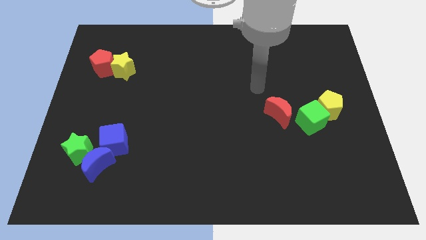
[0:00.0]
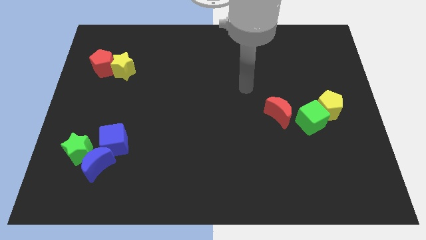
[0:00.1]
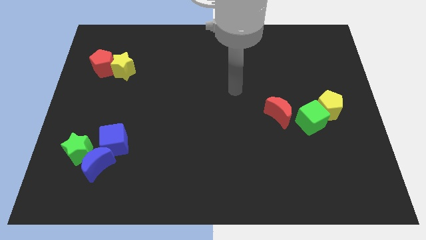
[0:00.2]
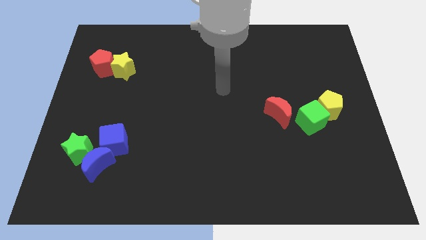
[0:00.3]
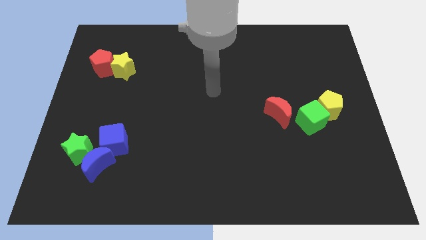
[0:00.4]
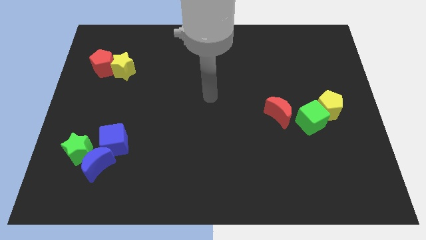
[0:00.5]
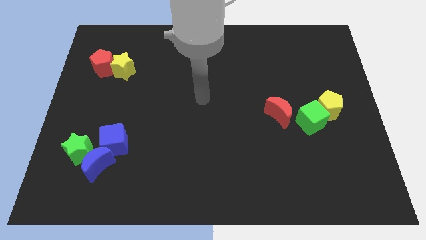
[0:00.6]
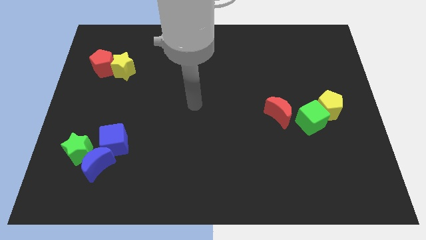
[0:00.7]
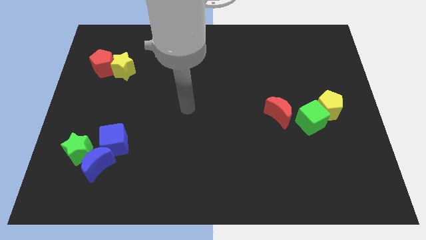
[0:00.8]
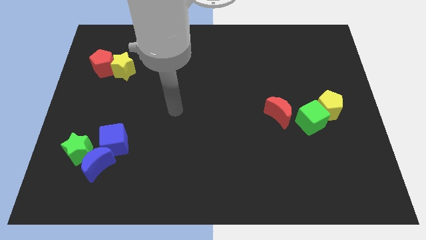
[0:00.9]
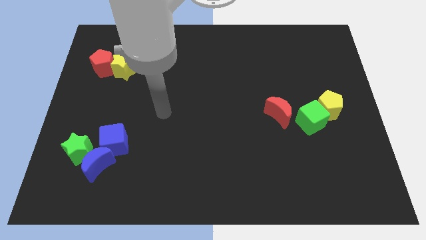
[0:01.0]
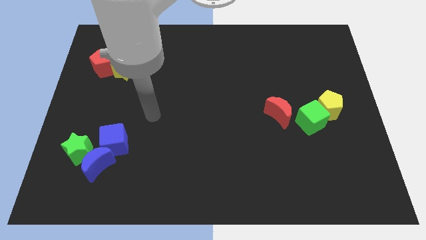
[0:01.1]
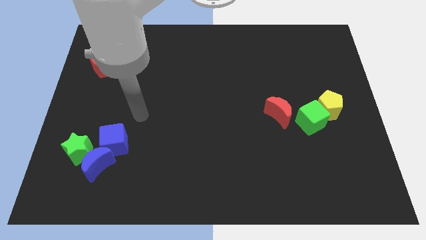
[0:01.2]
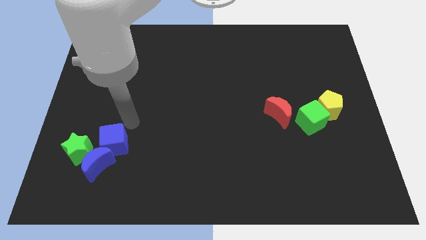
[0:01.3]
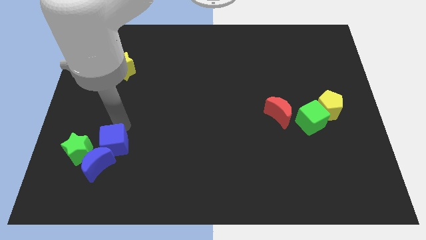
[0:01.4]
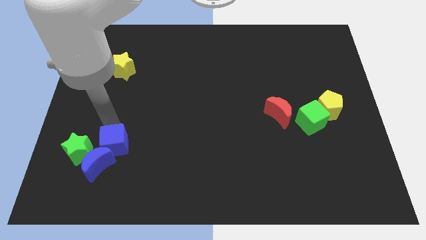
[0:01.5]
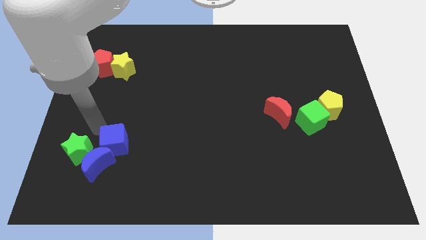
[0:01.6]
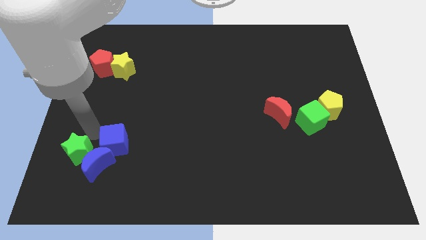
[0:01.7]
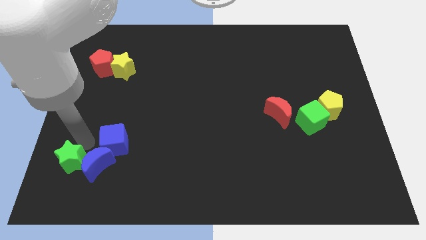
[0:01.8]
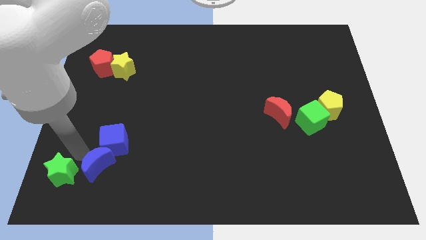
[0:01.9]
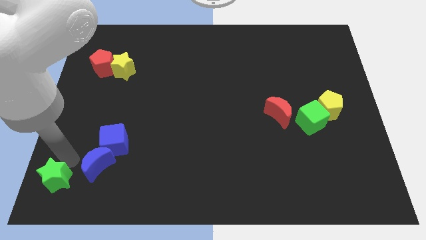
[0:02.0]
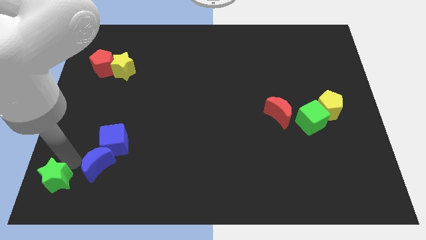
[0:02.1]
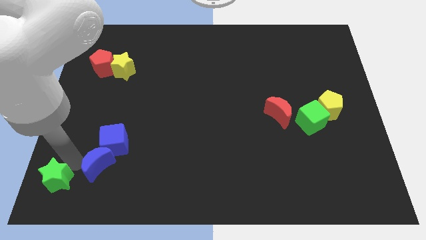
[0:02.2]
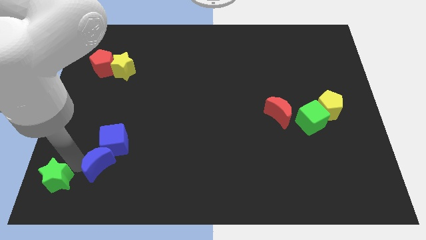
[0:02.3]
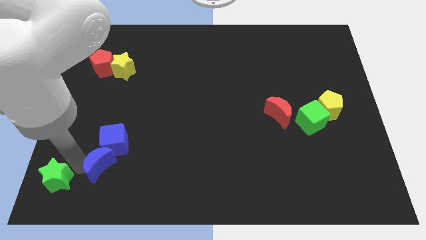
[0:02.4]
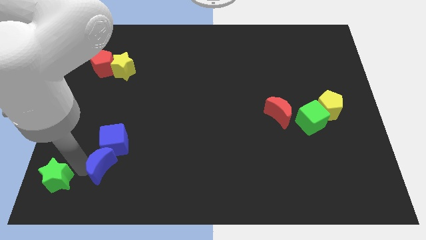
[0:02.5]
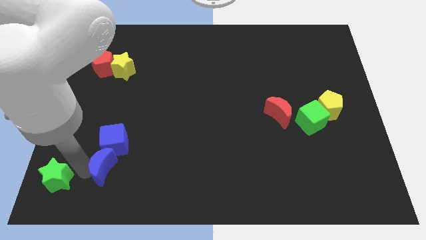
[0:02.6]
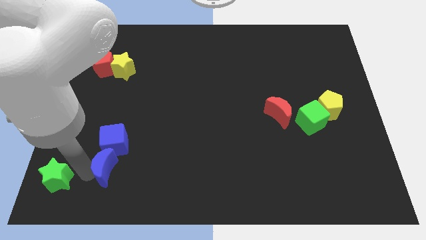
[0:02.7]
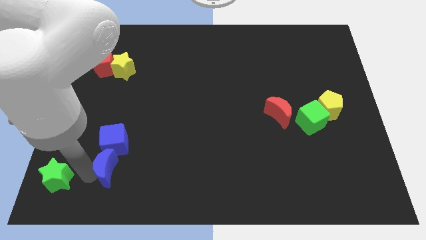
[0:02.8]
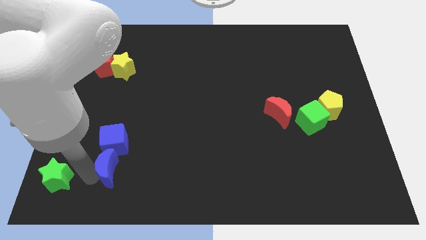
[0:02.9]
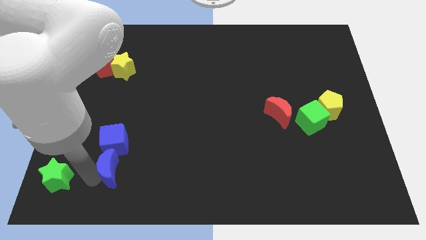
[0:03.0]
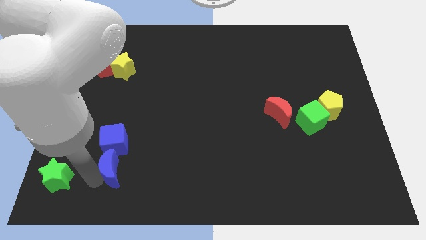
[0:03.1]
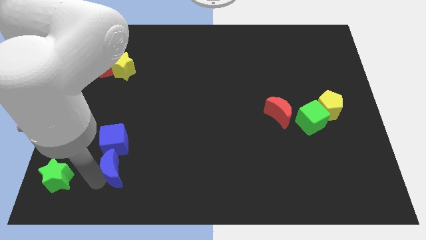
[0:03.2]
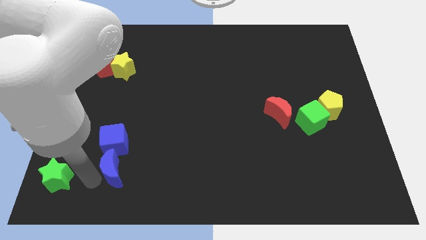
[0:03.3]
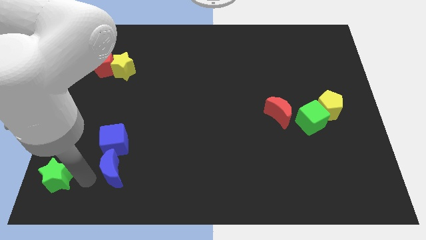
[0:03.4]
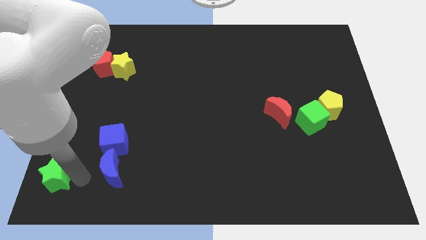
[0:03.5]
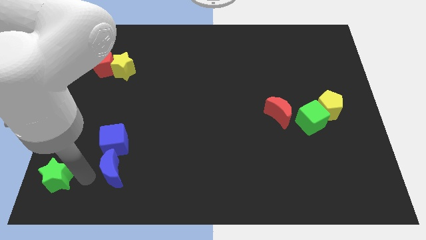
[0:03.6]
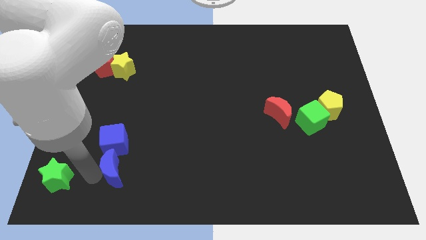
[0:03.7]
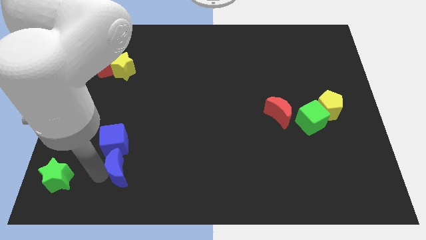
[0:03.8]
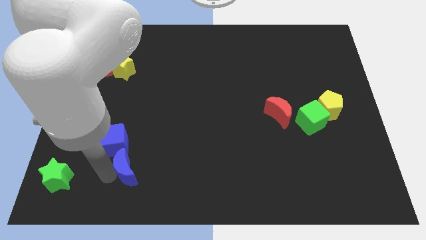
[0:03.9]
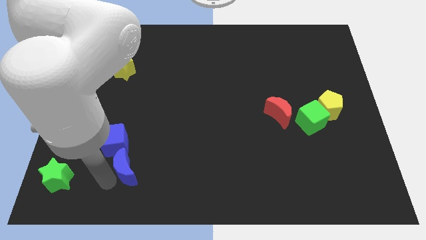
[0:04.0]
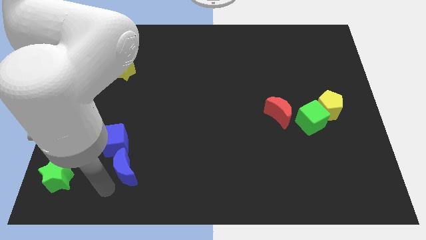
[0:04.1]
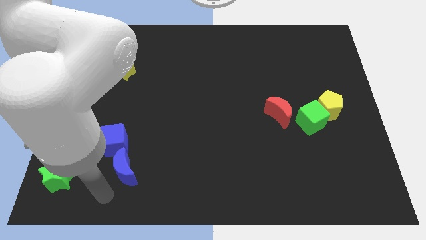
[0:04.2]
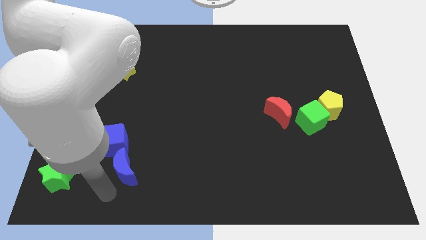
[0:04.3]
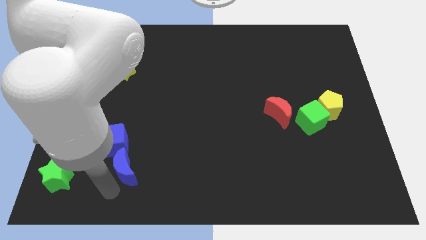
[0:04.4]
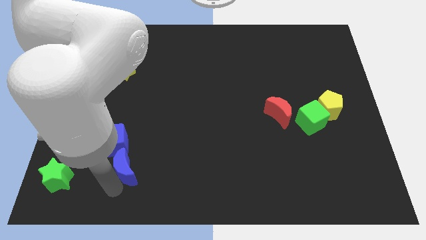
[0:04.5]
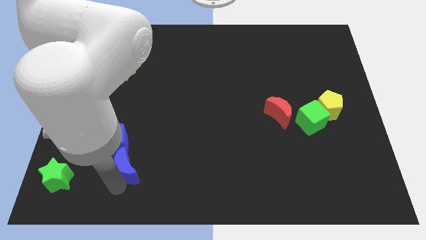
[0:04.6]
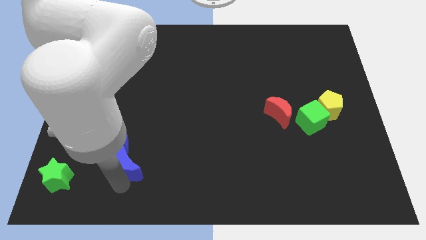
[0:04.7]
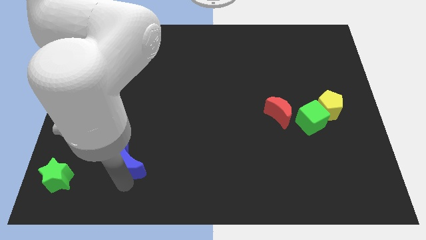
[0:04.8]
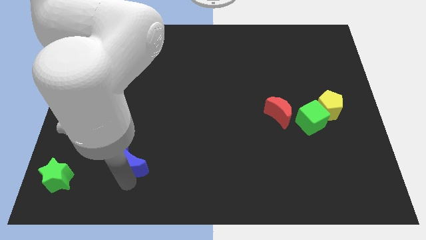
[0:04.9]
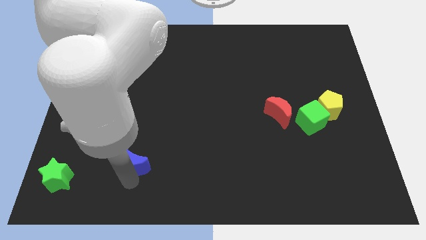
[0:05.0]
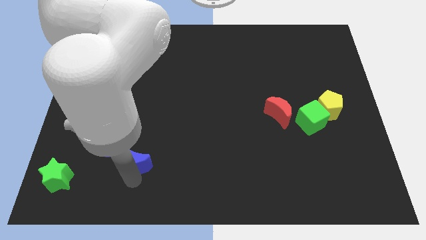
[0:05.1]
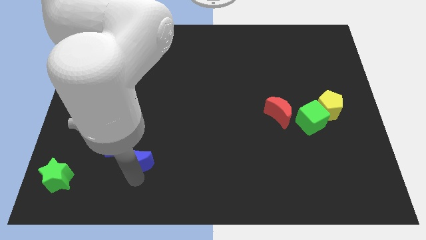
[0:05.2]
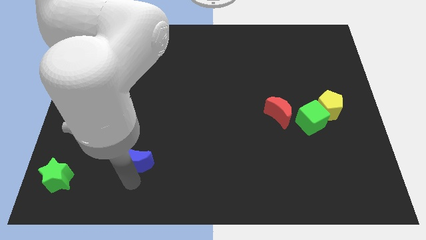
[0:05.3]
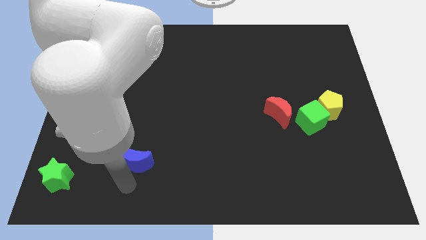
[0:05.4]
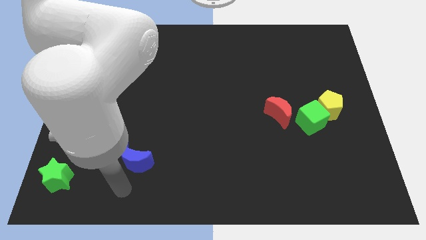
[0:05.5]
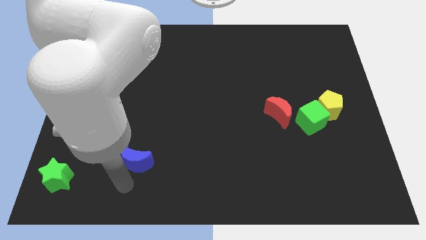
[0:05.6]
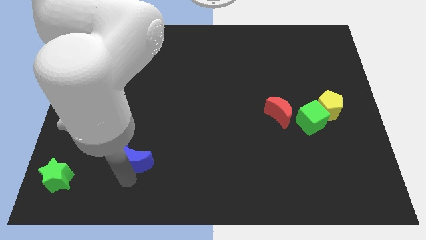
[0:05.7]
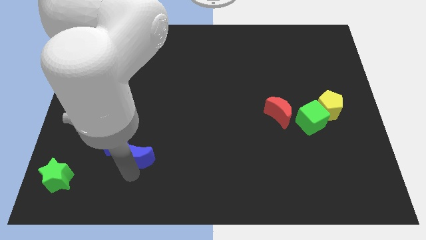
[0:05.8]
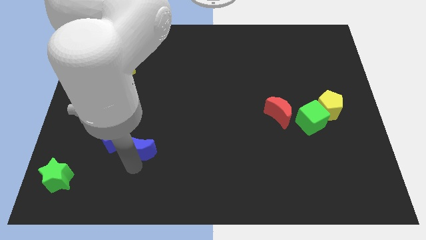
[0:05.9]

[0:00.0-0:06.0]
move the blue moon up and right diagonally slightly

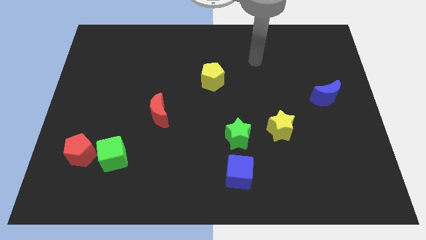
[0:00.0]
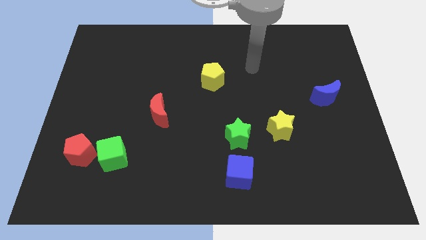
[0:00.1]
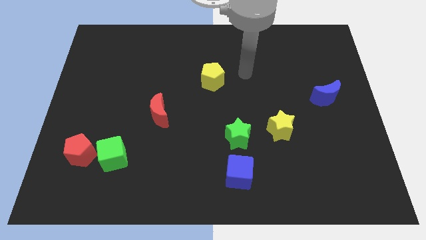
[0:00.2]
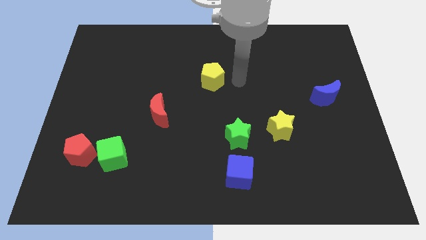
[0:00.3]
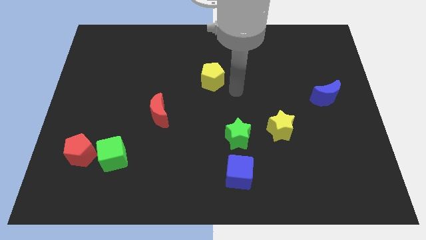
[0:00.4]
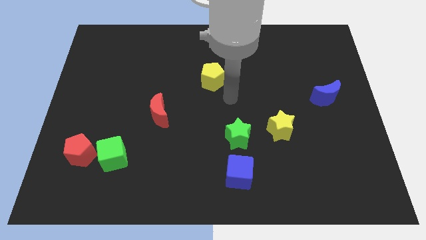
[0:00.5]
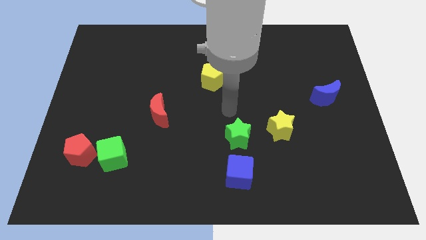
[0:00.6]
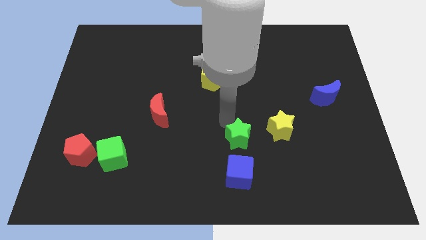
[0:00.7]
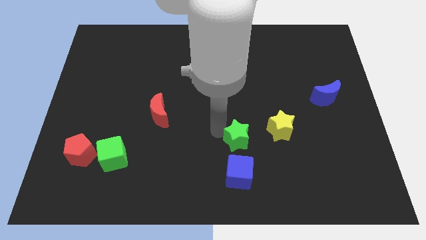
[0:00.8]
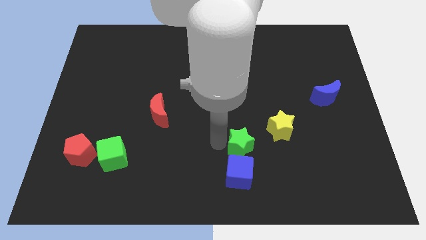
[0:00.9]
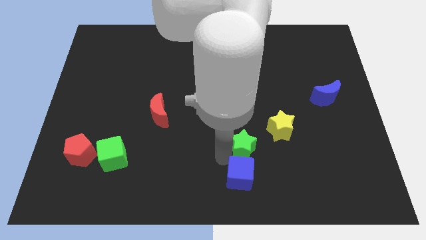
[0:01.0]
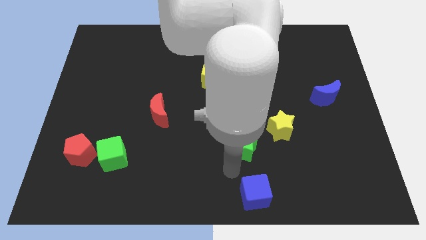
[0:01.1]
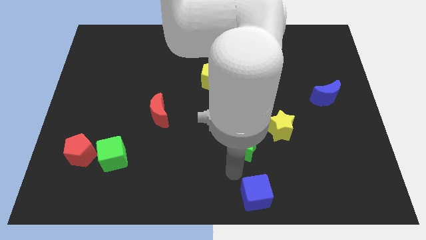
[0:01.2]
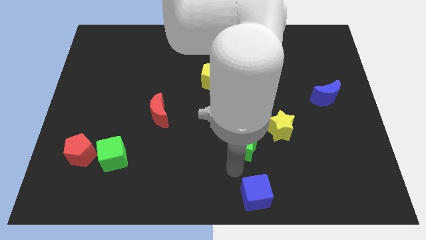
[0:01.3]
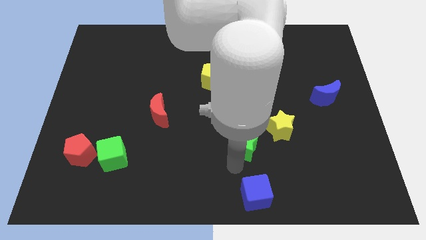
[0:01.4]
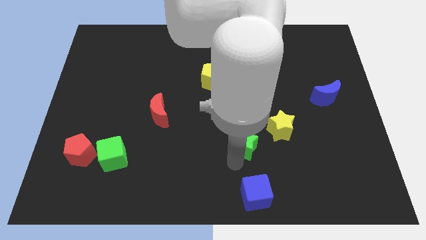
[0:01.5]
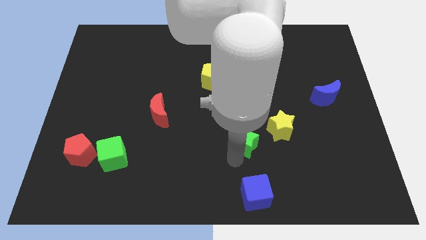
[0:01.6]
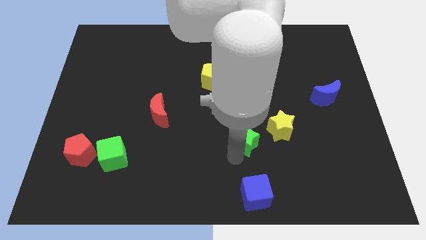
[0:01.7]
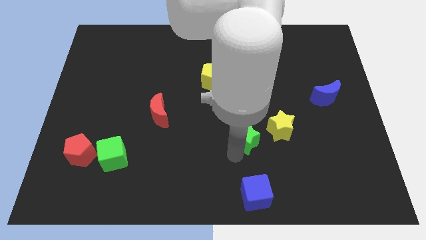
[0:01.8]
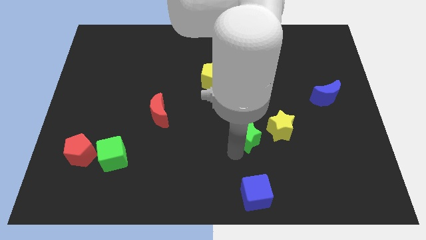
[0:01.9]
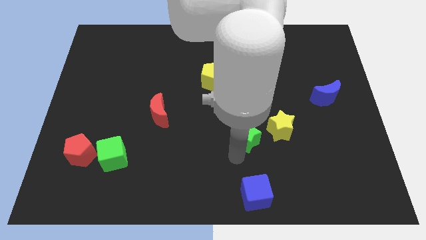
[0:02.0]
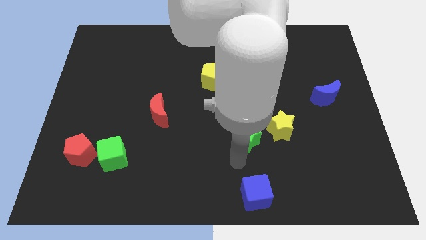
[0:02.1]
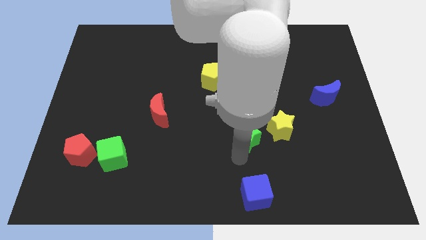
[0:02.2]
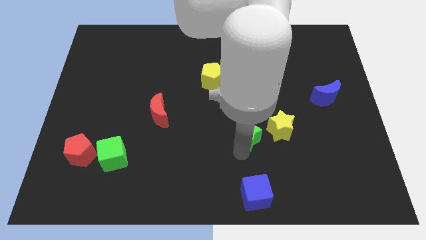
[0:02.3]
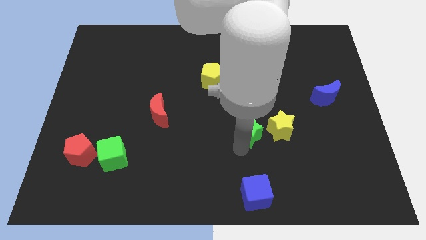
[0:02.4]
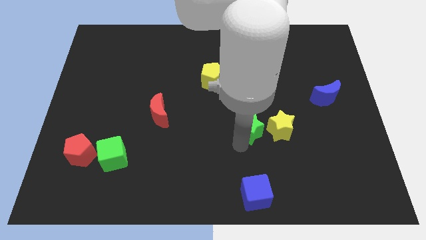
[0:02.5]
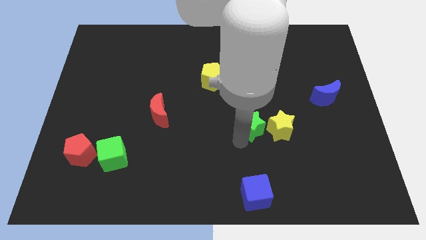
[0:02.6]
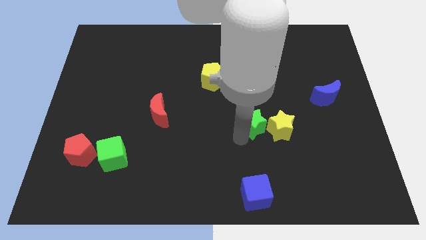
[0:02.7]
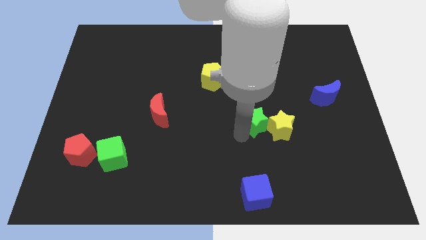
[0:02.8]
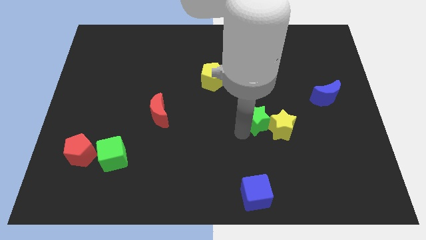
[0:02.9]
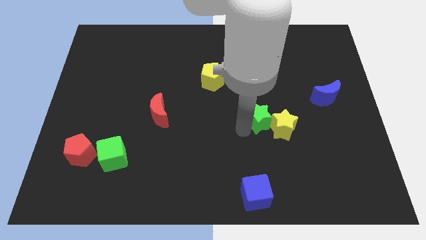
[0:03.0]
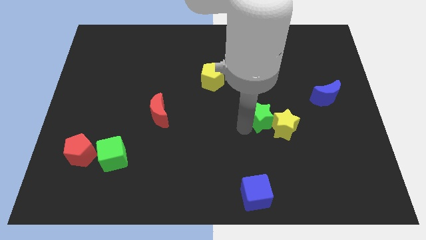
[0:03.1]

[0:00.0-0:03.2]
slide the green star up and right diagonally somewhat
